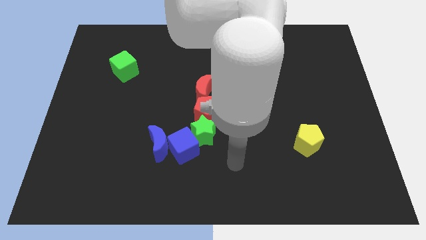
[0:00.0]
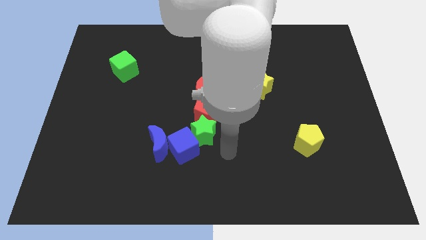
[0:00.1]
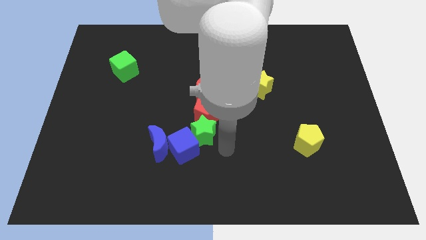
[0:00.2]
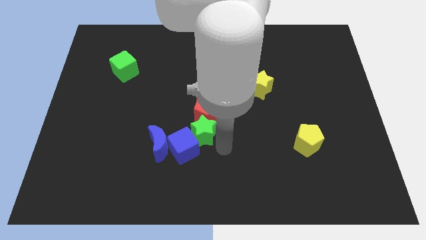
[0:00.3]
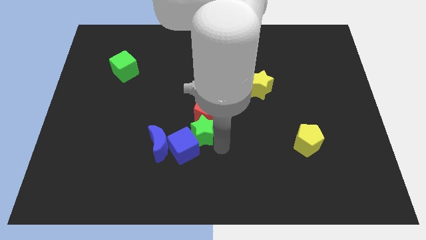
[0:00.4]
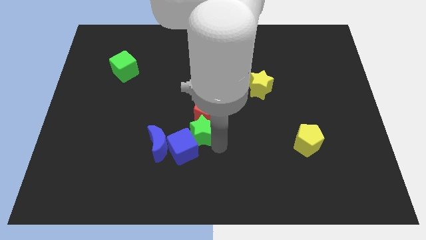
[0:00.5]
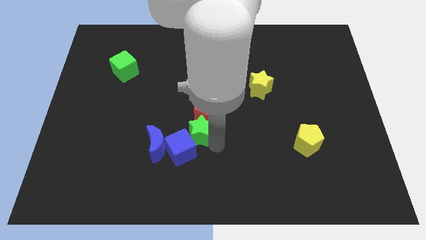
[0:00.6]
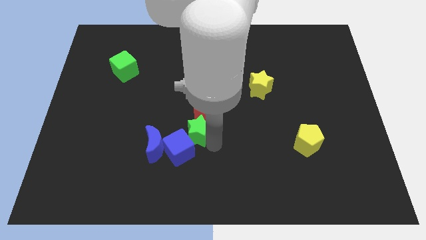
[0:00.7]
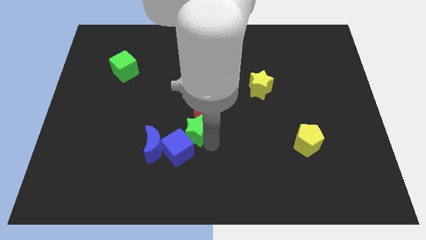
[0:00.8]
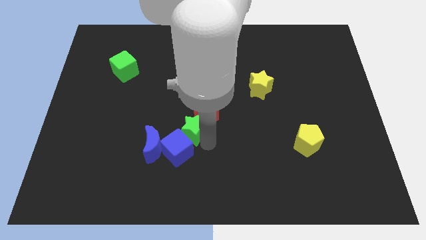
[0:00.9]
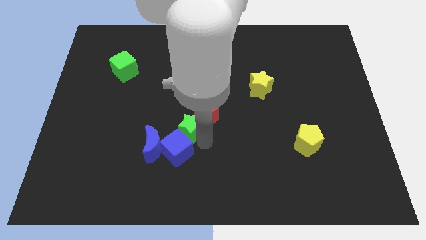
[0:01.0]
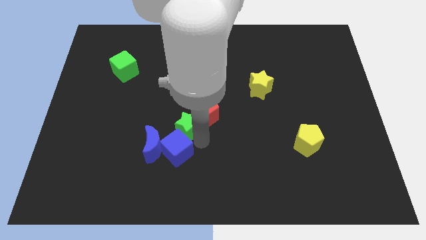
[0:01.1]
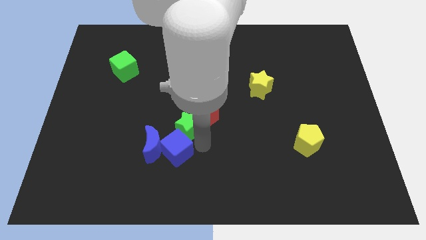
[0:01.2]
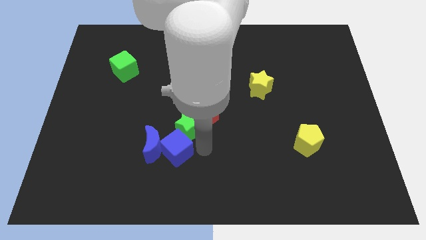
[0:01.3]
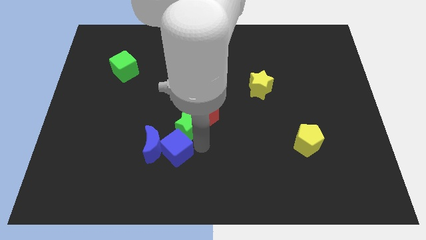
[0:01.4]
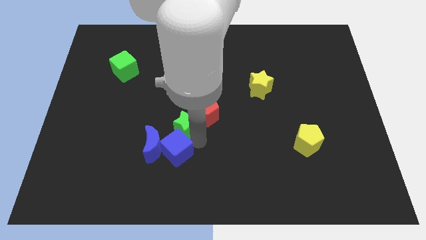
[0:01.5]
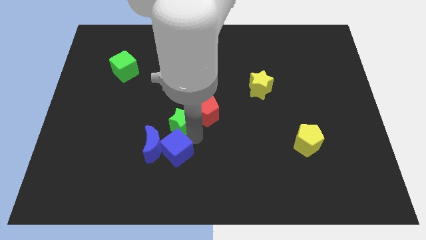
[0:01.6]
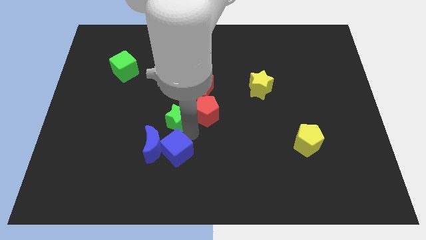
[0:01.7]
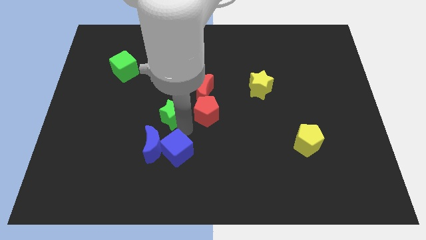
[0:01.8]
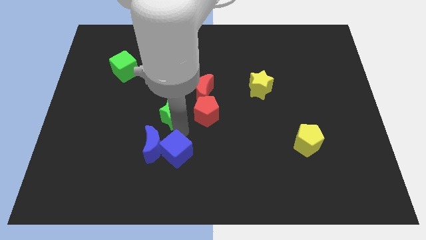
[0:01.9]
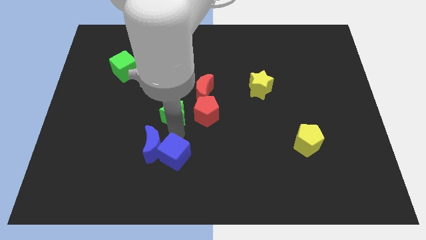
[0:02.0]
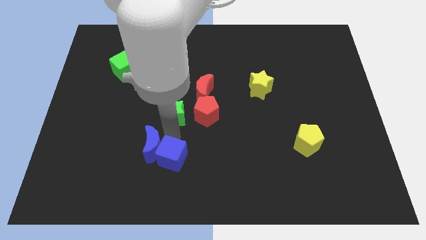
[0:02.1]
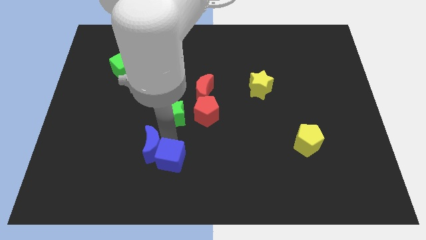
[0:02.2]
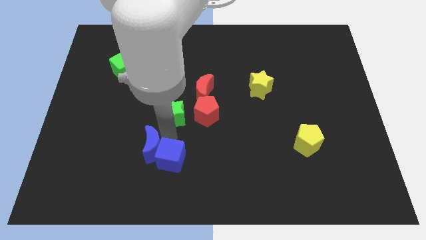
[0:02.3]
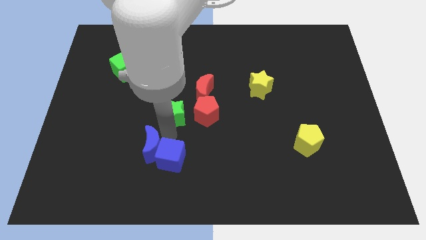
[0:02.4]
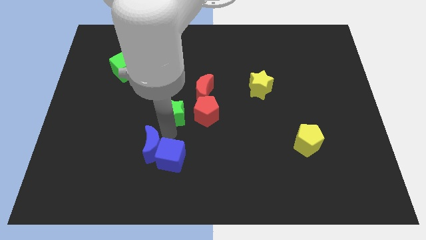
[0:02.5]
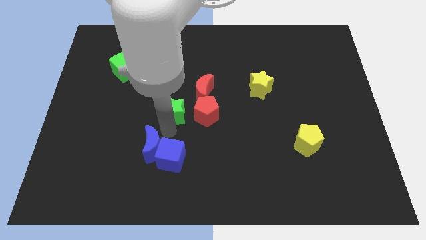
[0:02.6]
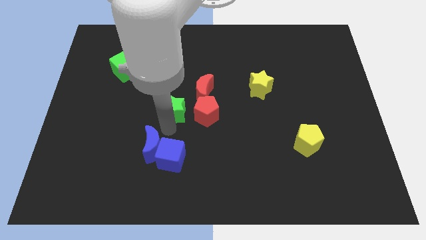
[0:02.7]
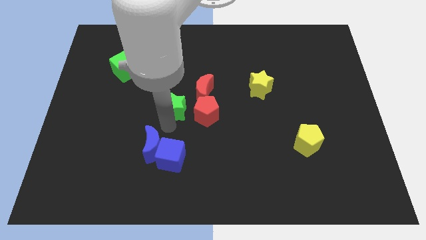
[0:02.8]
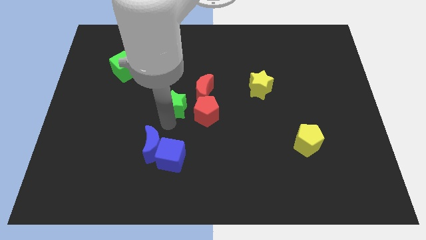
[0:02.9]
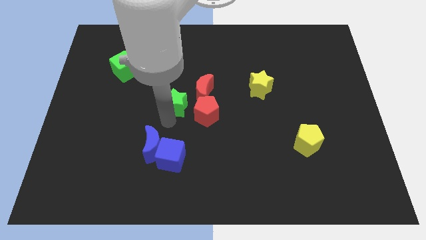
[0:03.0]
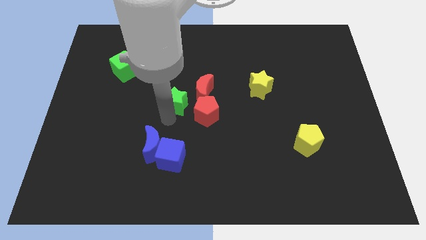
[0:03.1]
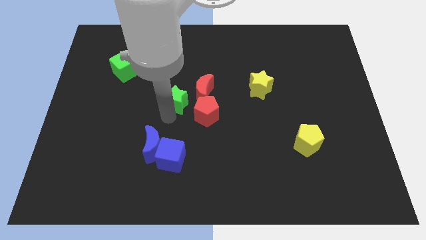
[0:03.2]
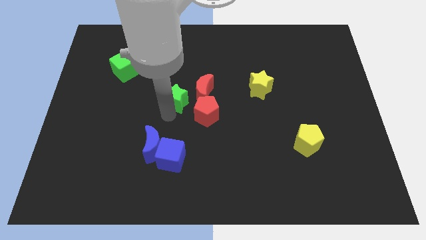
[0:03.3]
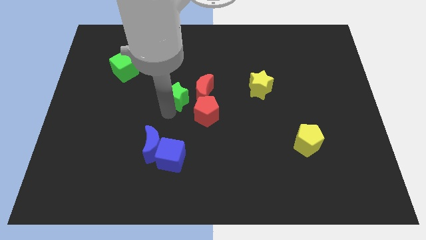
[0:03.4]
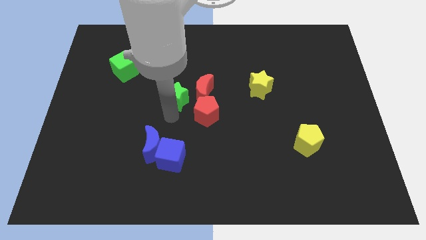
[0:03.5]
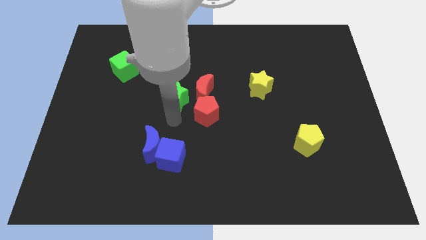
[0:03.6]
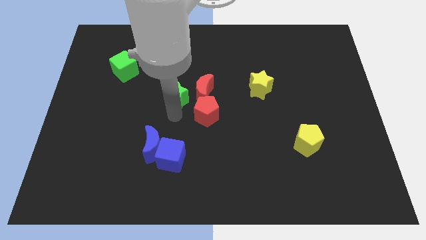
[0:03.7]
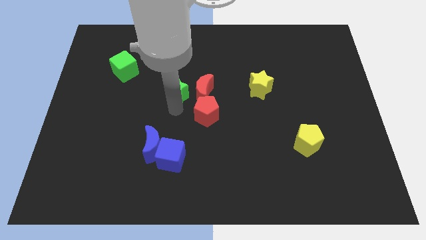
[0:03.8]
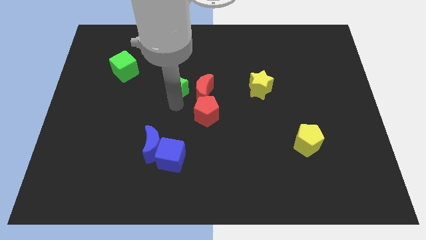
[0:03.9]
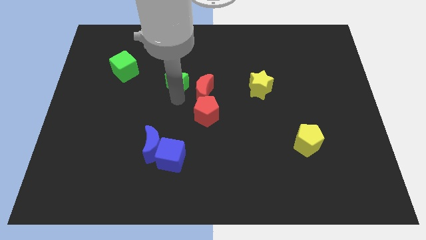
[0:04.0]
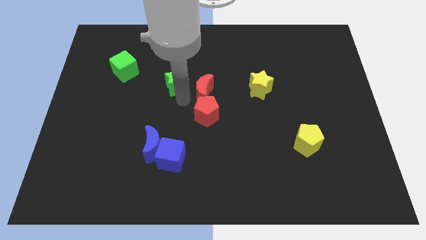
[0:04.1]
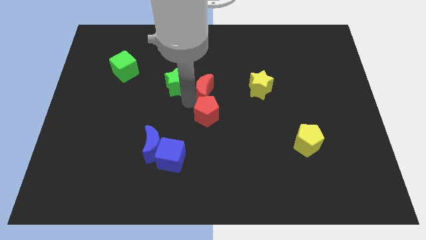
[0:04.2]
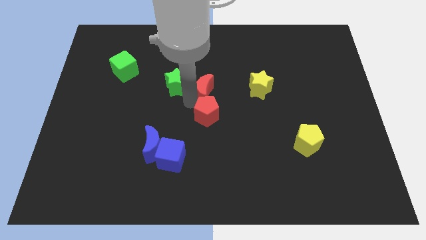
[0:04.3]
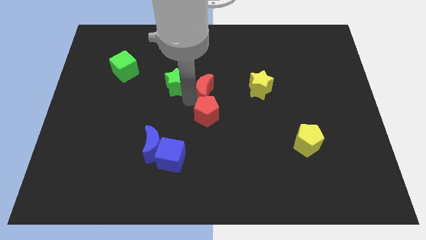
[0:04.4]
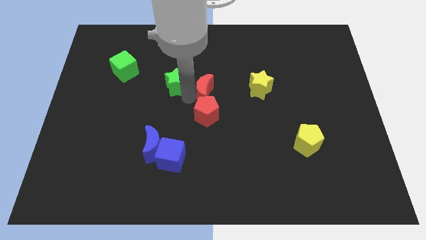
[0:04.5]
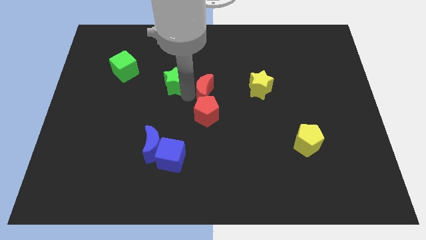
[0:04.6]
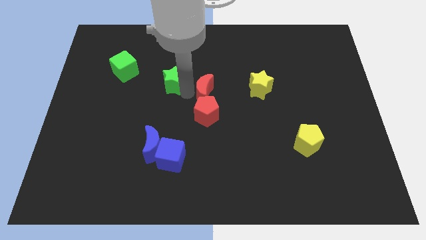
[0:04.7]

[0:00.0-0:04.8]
move the green star right of the green cube

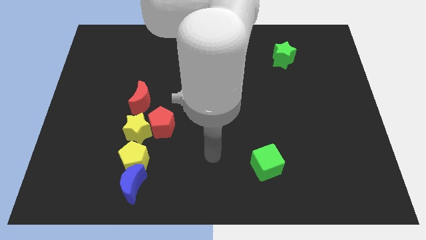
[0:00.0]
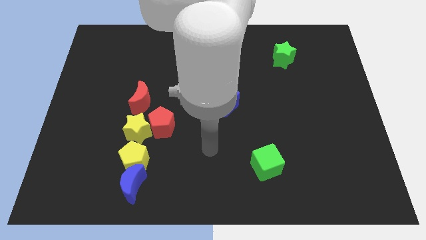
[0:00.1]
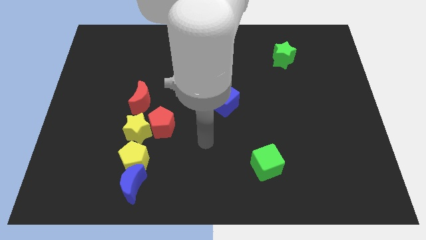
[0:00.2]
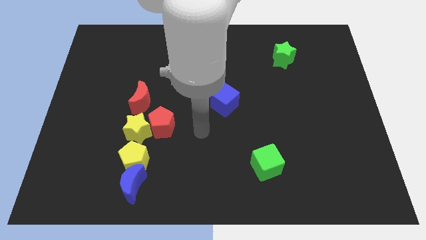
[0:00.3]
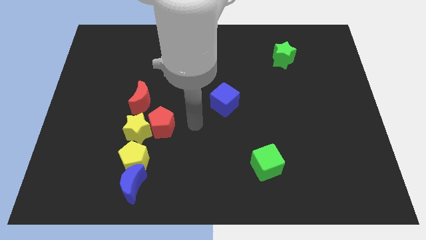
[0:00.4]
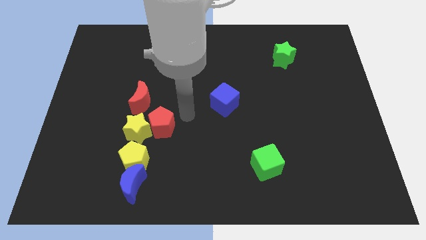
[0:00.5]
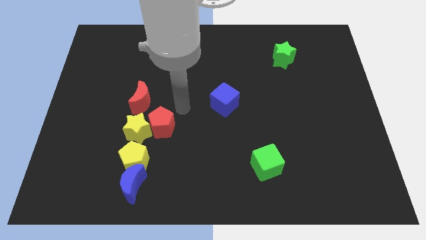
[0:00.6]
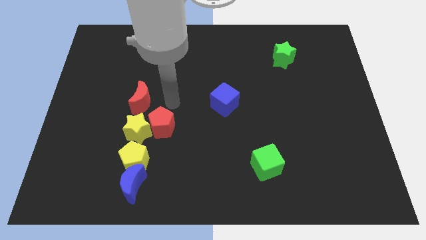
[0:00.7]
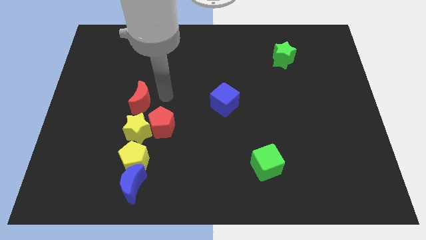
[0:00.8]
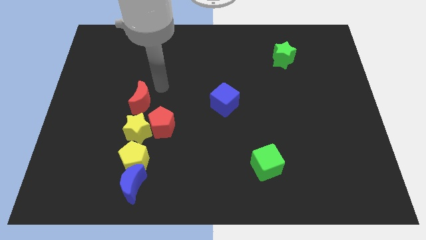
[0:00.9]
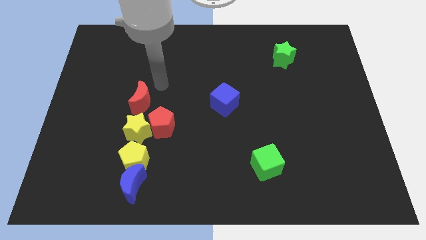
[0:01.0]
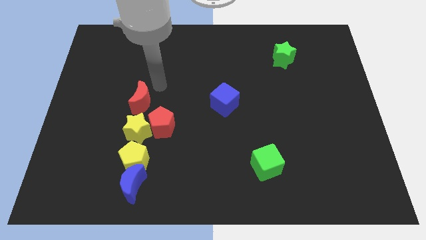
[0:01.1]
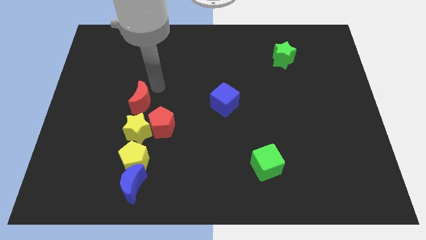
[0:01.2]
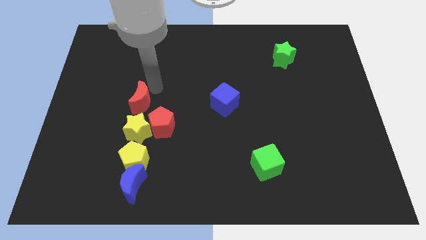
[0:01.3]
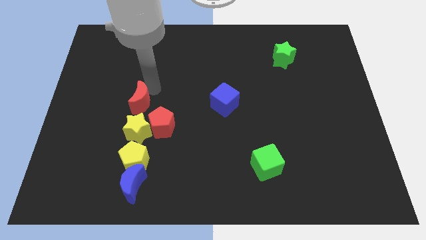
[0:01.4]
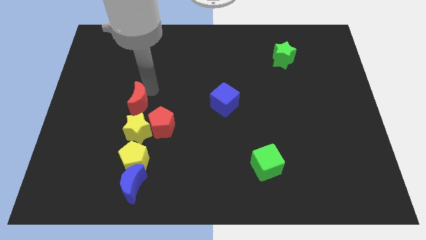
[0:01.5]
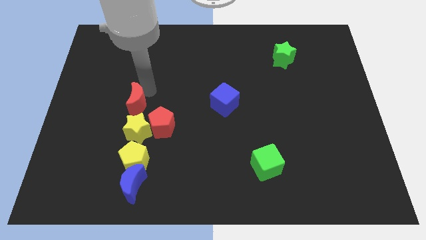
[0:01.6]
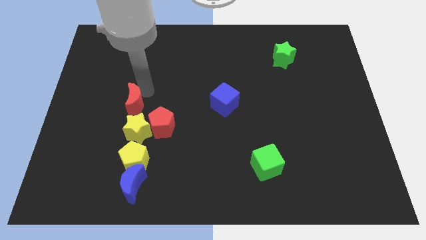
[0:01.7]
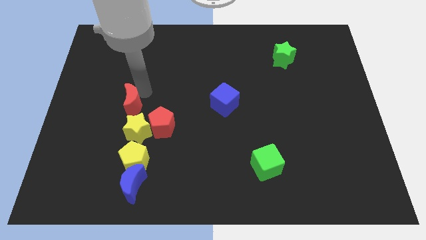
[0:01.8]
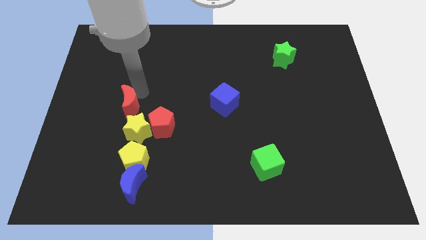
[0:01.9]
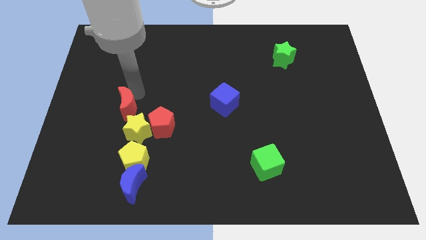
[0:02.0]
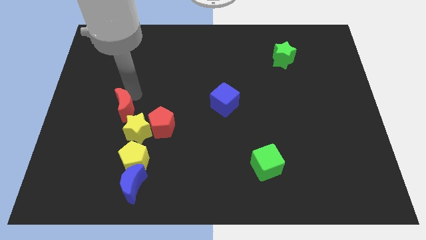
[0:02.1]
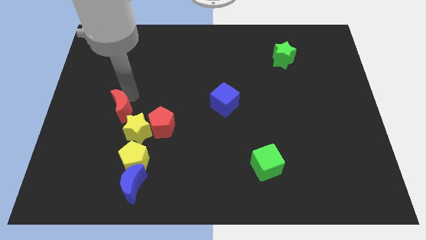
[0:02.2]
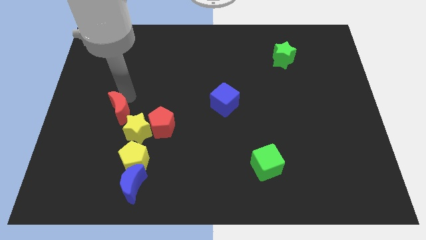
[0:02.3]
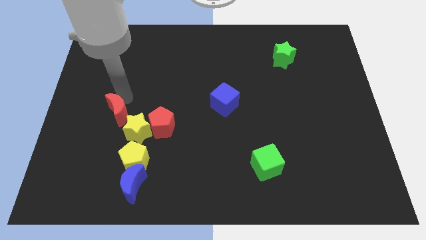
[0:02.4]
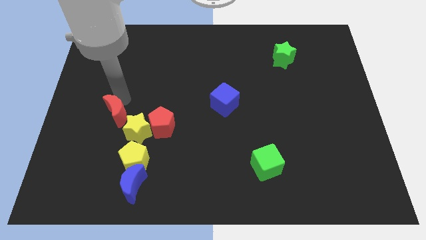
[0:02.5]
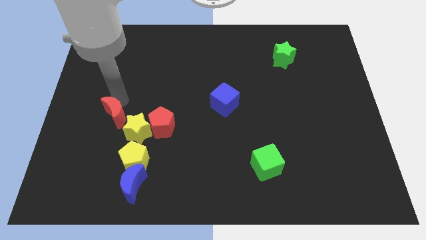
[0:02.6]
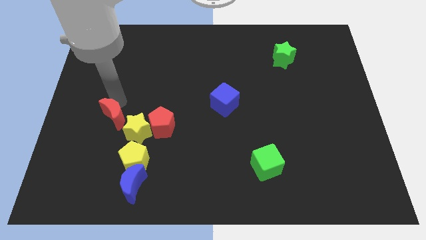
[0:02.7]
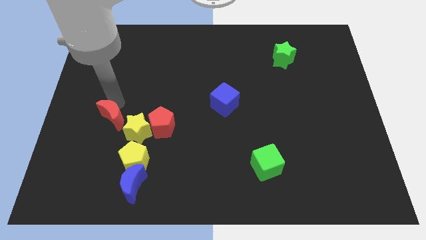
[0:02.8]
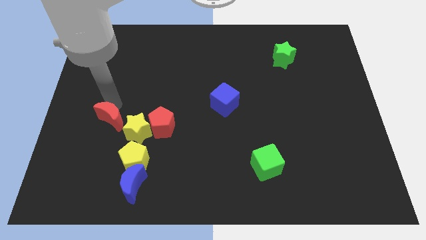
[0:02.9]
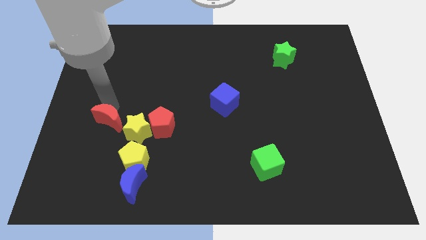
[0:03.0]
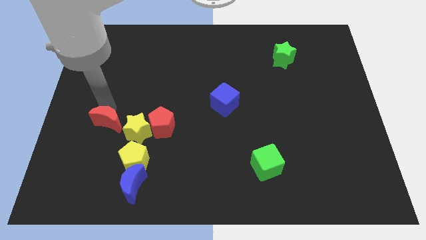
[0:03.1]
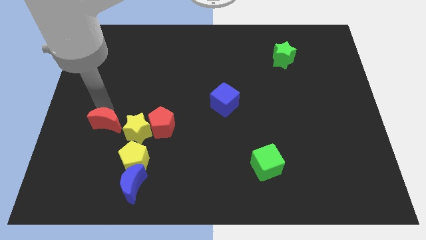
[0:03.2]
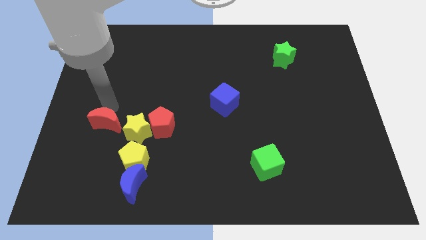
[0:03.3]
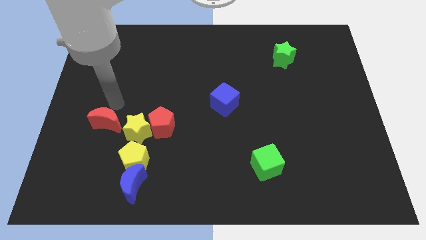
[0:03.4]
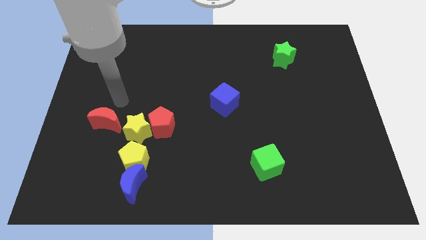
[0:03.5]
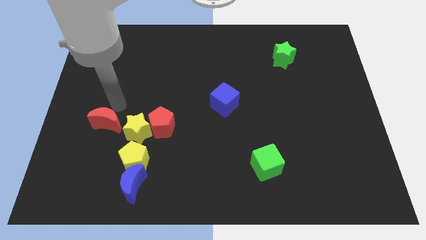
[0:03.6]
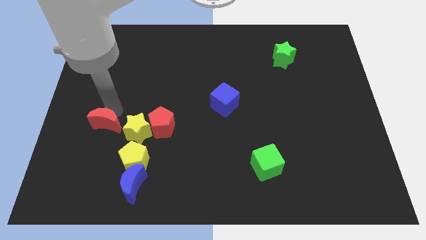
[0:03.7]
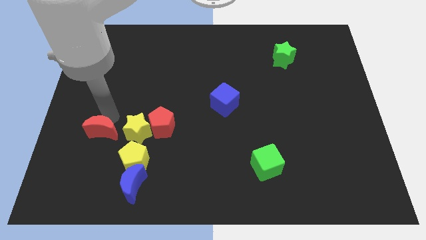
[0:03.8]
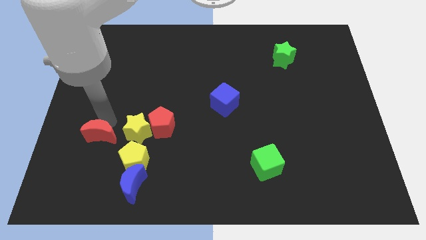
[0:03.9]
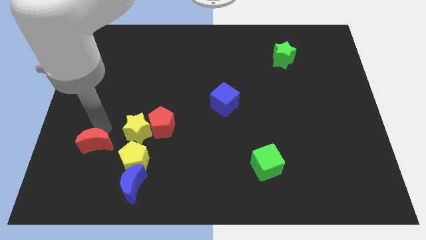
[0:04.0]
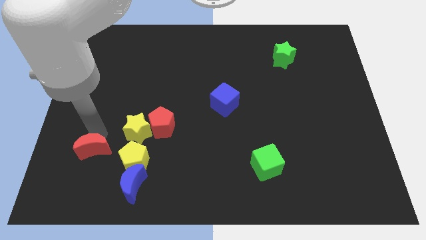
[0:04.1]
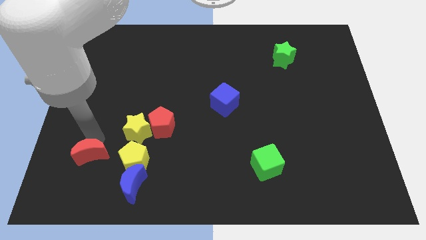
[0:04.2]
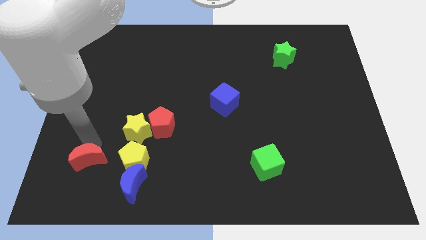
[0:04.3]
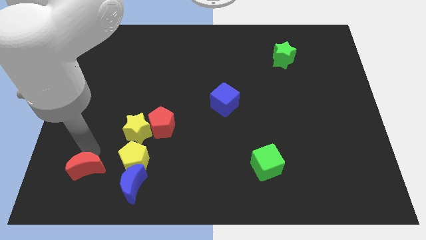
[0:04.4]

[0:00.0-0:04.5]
put the red moon left of the blue moon
